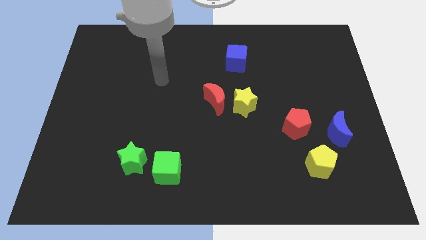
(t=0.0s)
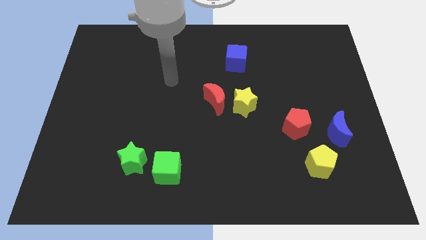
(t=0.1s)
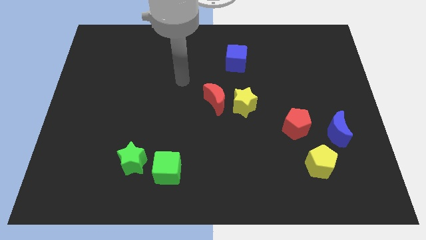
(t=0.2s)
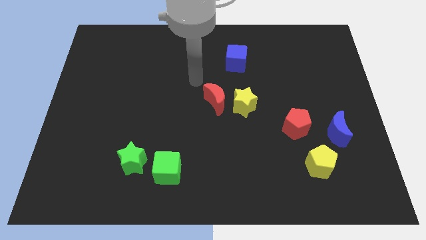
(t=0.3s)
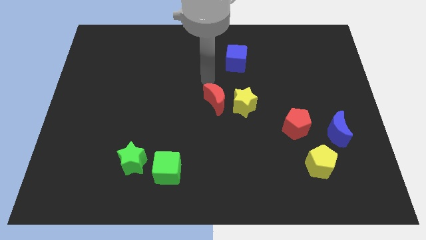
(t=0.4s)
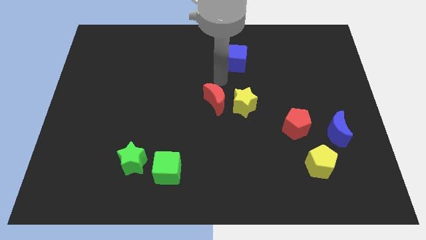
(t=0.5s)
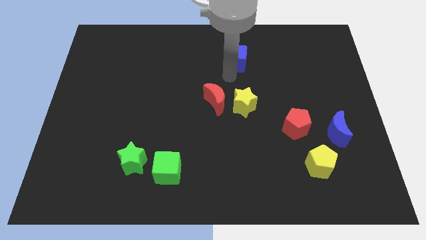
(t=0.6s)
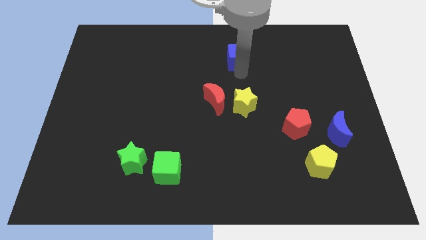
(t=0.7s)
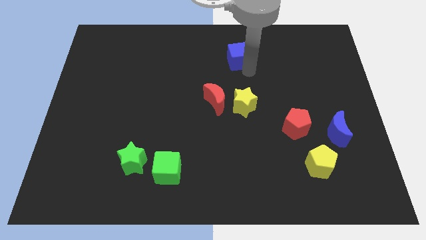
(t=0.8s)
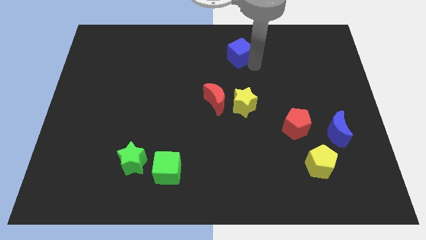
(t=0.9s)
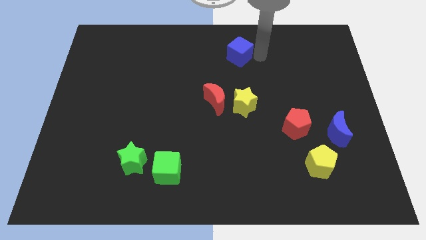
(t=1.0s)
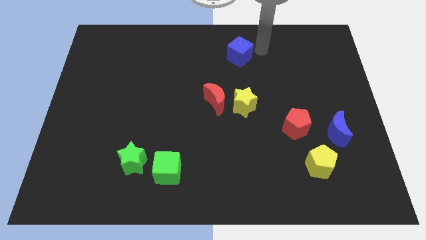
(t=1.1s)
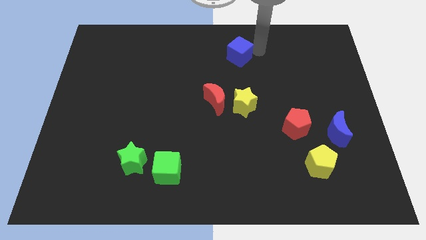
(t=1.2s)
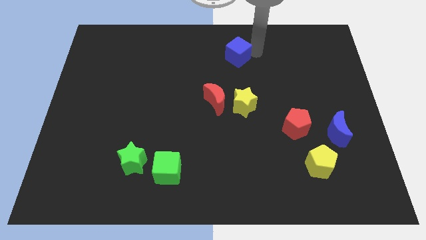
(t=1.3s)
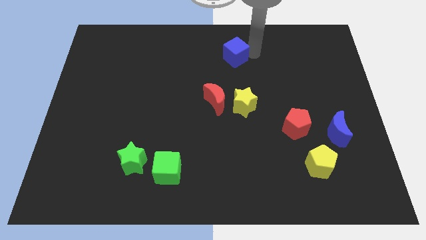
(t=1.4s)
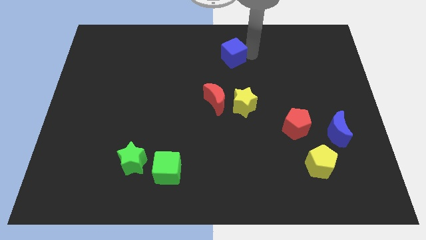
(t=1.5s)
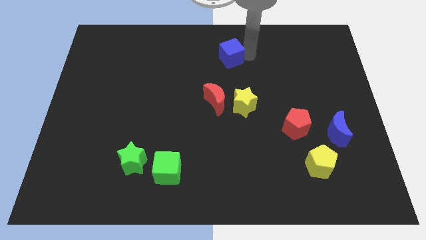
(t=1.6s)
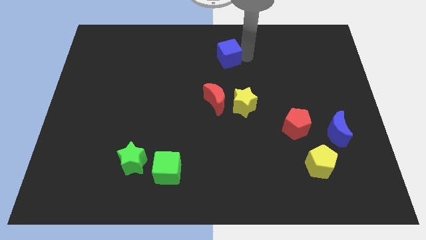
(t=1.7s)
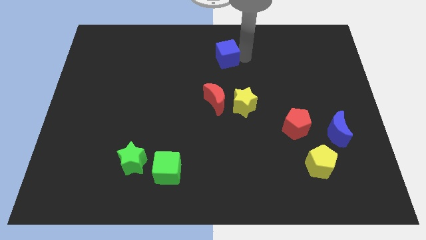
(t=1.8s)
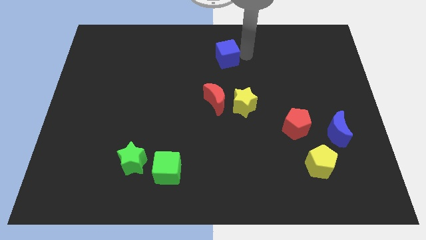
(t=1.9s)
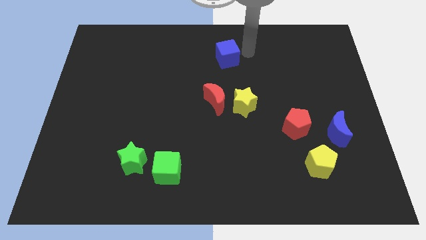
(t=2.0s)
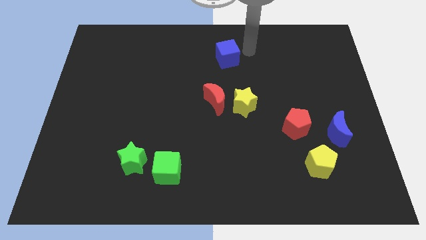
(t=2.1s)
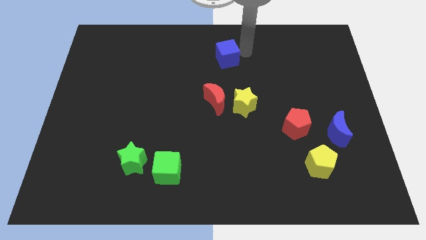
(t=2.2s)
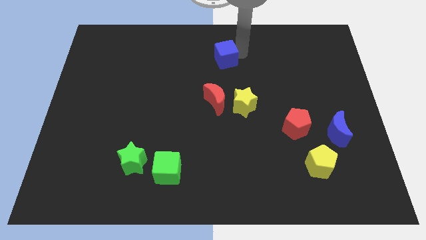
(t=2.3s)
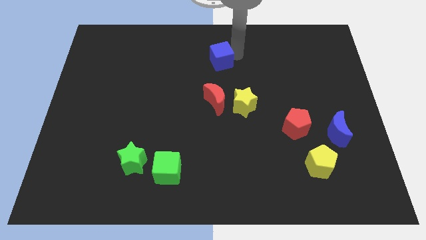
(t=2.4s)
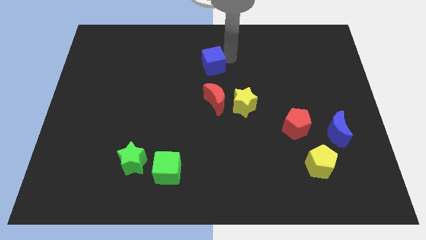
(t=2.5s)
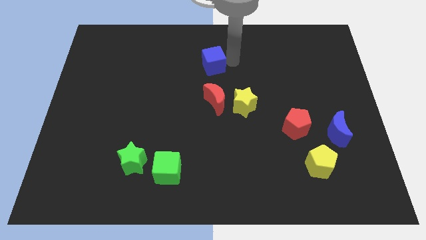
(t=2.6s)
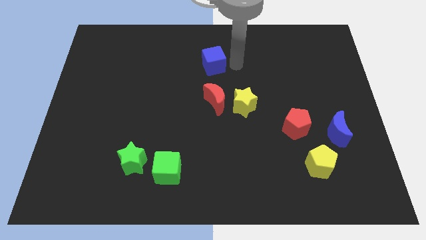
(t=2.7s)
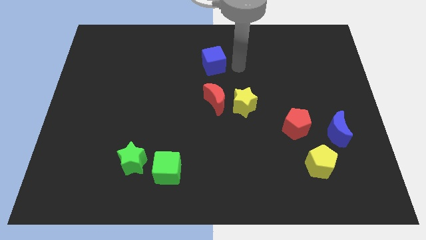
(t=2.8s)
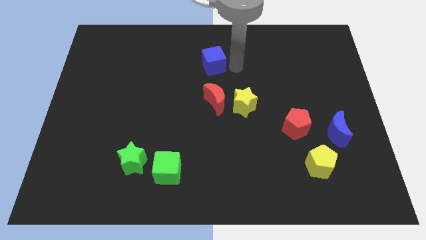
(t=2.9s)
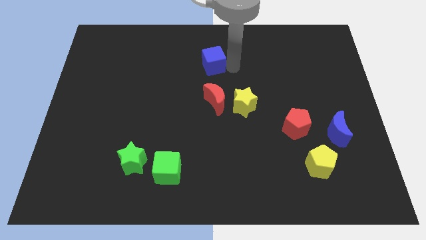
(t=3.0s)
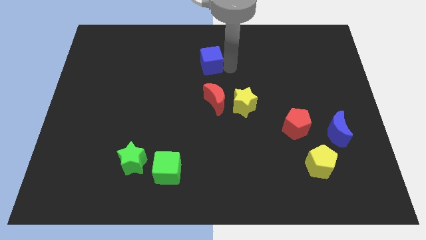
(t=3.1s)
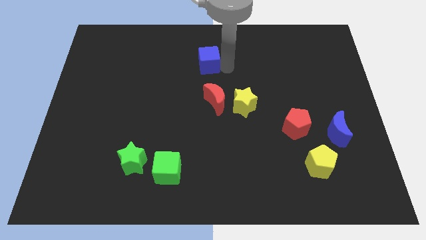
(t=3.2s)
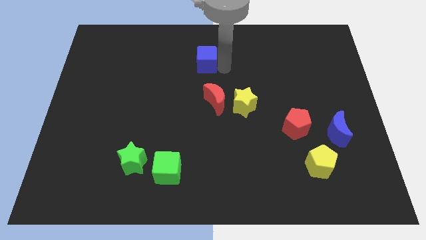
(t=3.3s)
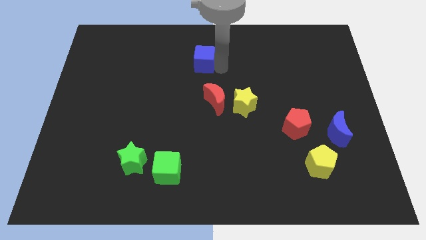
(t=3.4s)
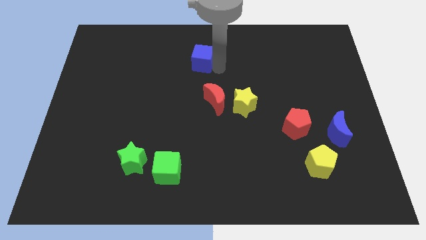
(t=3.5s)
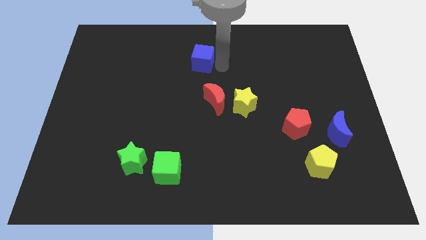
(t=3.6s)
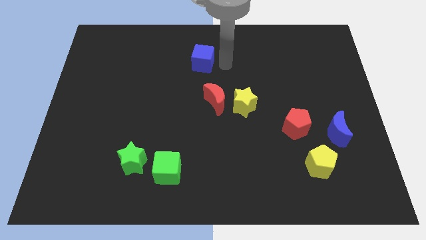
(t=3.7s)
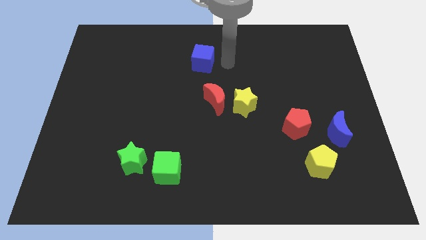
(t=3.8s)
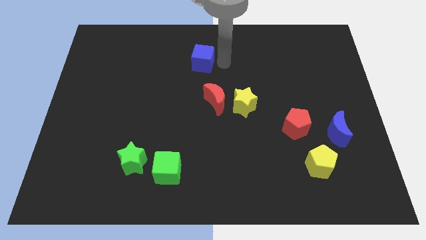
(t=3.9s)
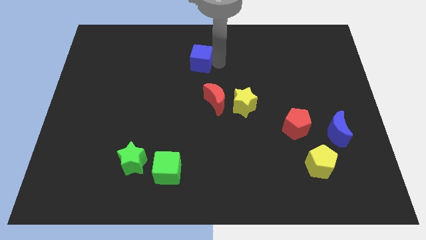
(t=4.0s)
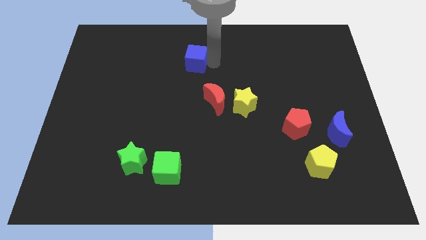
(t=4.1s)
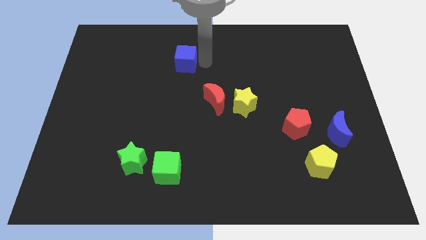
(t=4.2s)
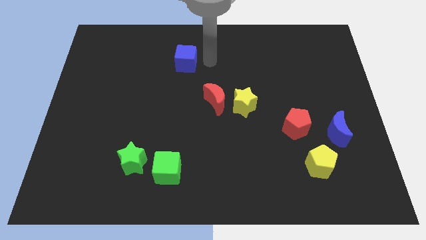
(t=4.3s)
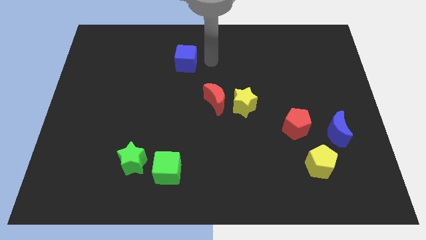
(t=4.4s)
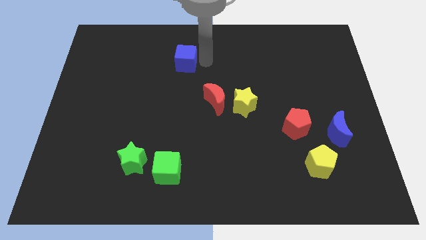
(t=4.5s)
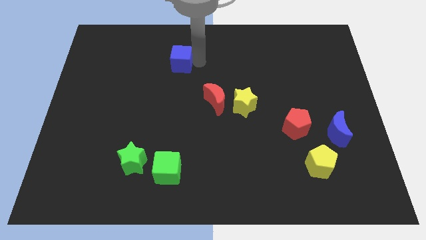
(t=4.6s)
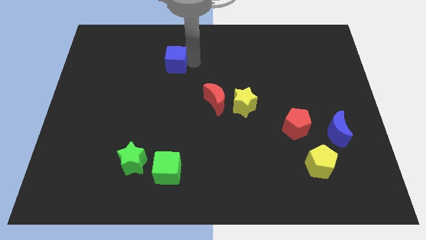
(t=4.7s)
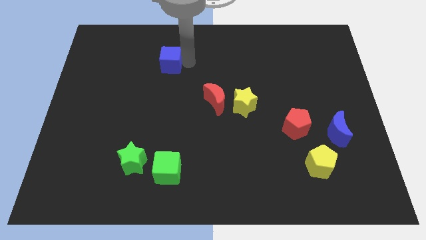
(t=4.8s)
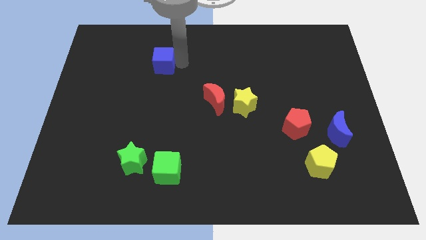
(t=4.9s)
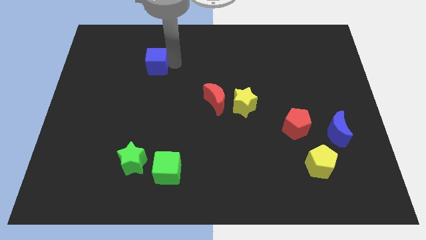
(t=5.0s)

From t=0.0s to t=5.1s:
push the blue cube left

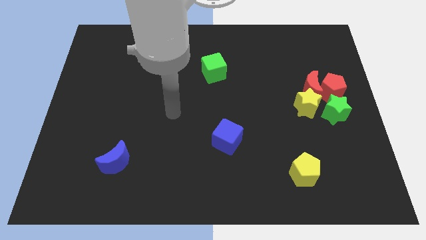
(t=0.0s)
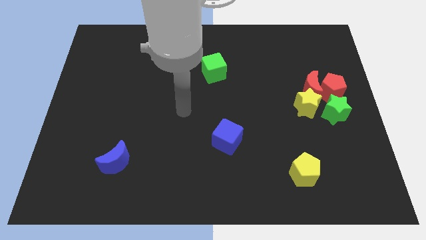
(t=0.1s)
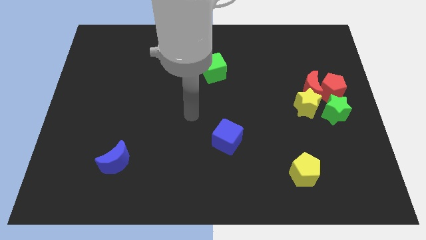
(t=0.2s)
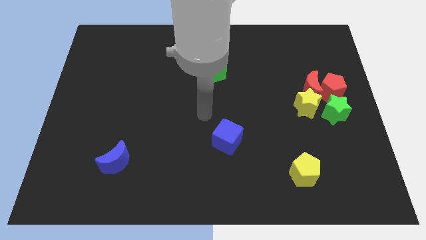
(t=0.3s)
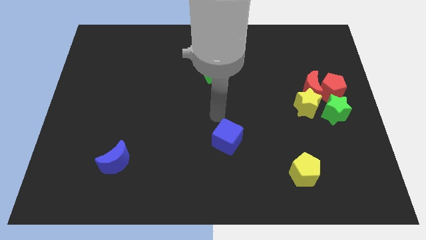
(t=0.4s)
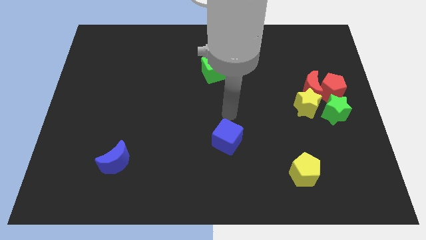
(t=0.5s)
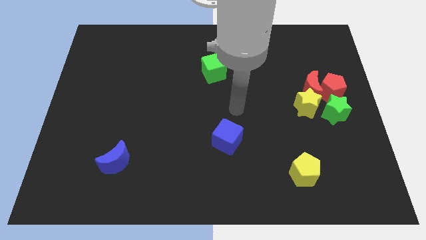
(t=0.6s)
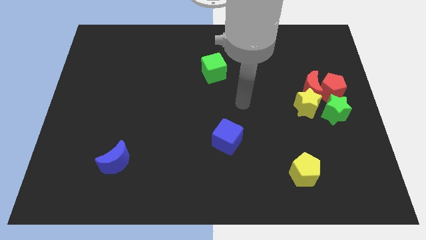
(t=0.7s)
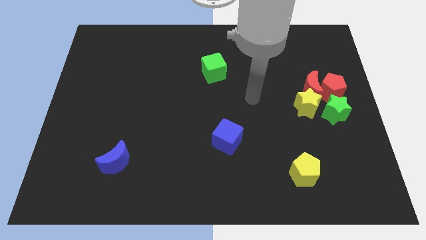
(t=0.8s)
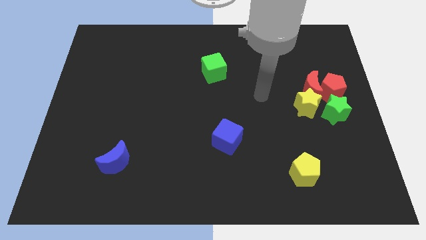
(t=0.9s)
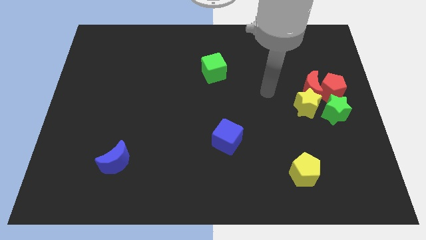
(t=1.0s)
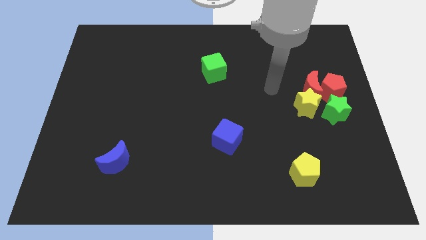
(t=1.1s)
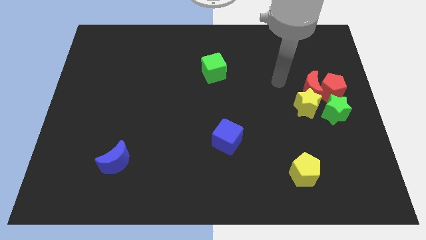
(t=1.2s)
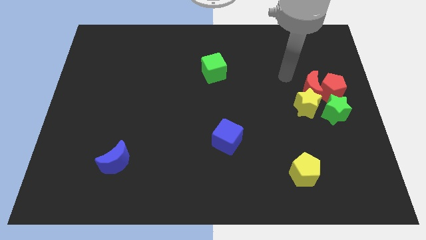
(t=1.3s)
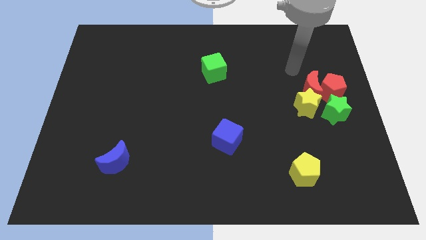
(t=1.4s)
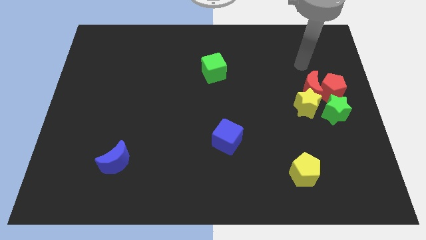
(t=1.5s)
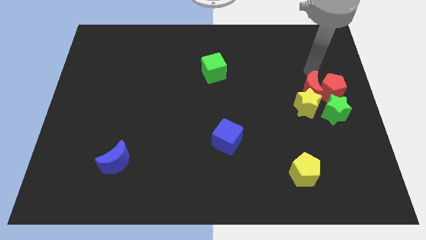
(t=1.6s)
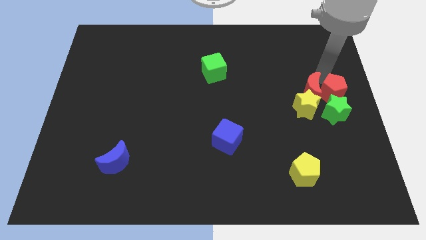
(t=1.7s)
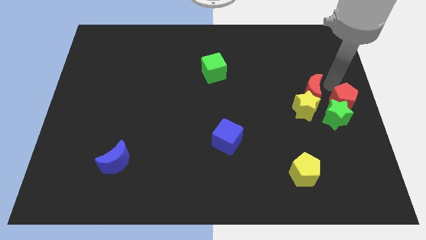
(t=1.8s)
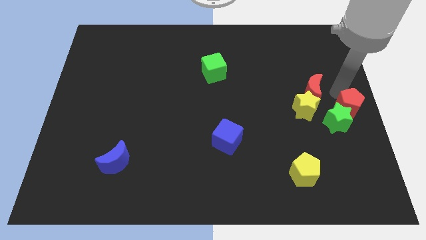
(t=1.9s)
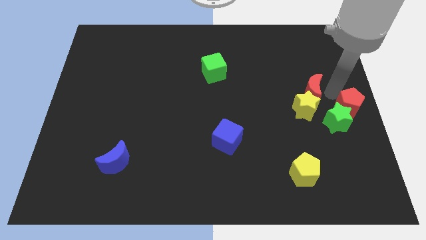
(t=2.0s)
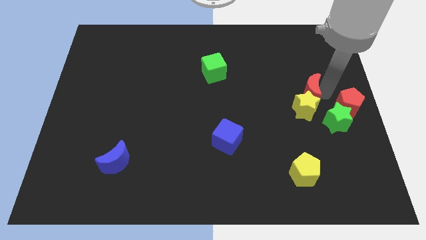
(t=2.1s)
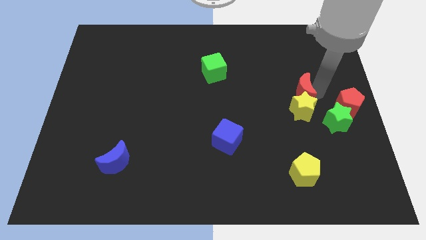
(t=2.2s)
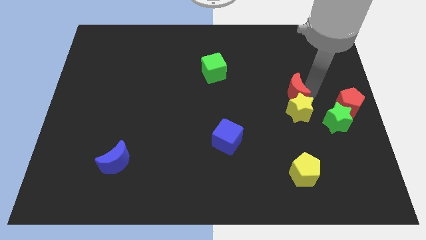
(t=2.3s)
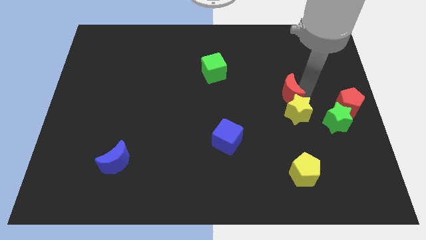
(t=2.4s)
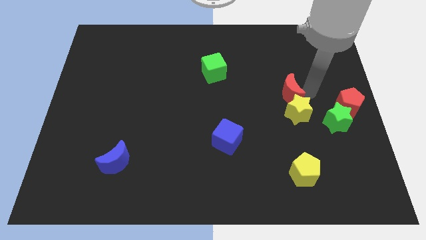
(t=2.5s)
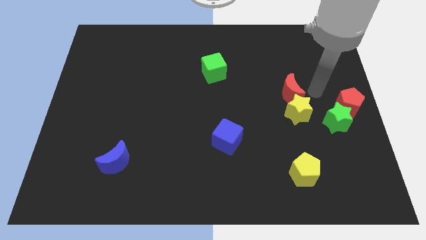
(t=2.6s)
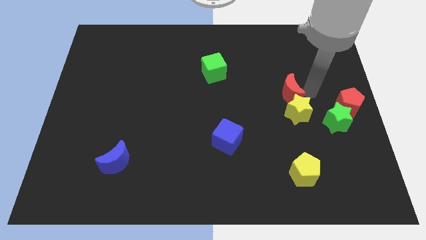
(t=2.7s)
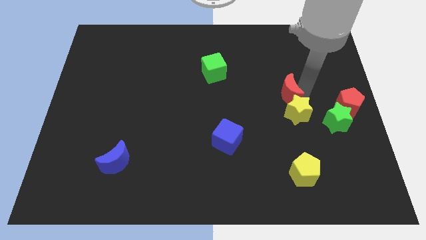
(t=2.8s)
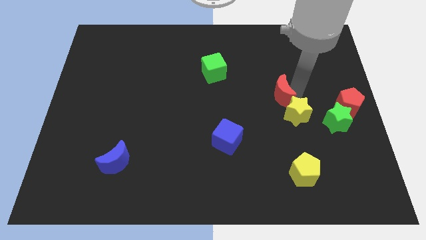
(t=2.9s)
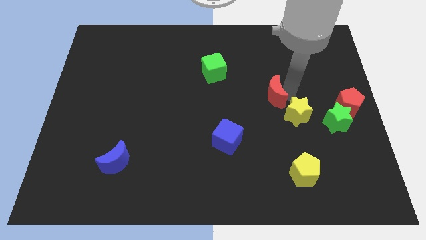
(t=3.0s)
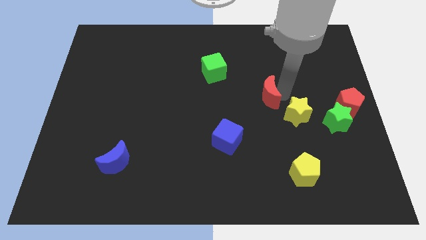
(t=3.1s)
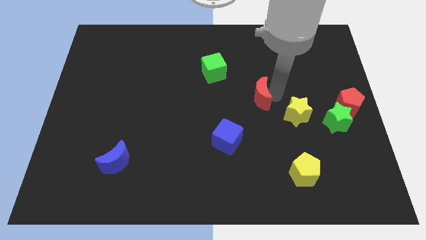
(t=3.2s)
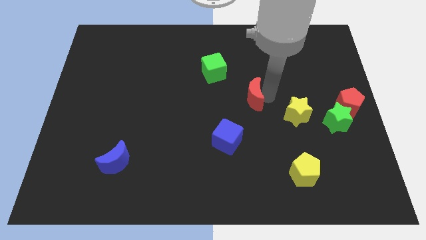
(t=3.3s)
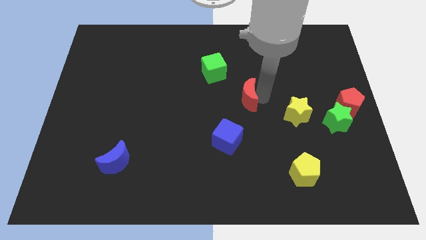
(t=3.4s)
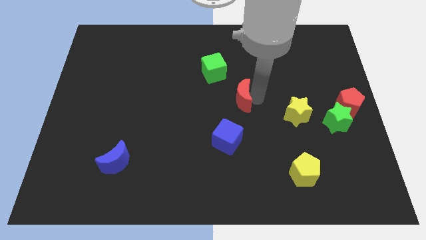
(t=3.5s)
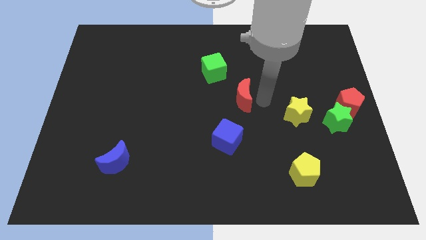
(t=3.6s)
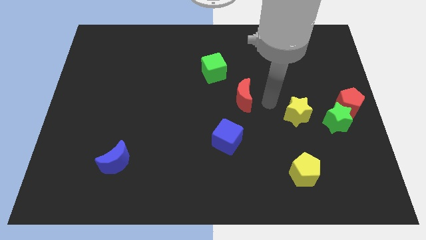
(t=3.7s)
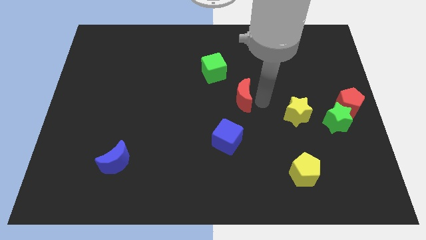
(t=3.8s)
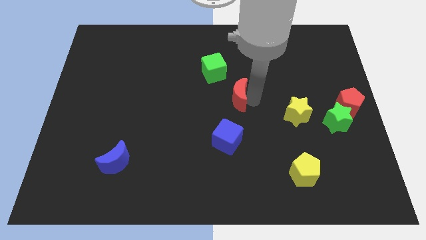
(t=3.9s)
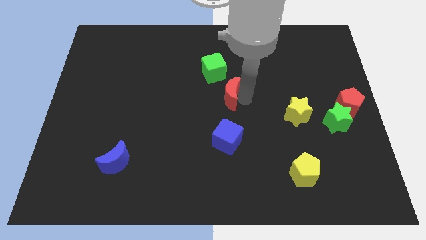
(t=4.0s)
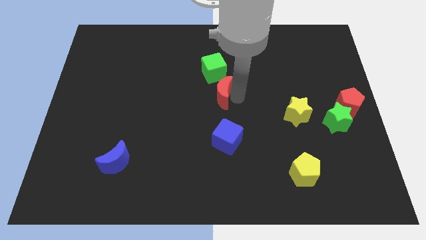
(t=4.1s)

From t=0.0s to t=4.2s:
move the red moon to the left
